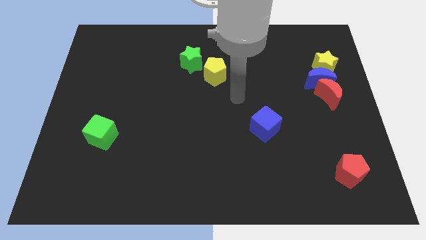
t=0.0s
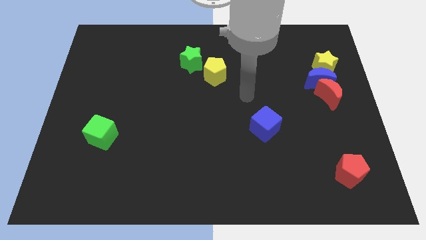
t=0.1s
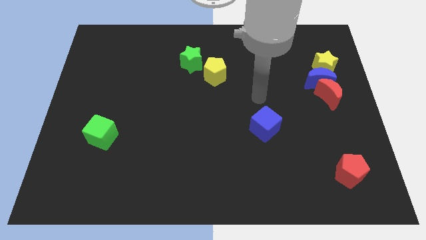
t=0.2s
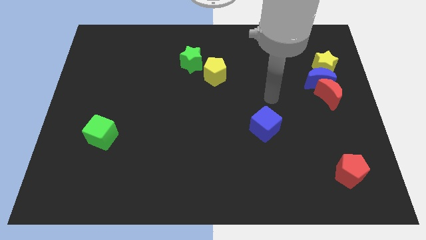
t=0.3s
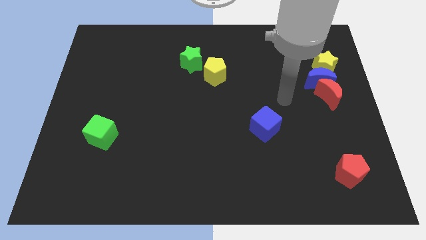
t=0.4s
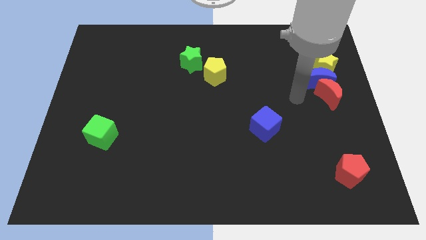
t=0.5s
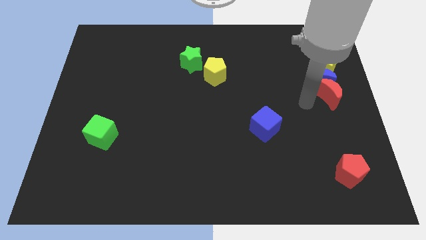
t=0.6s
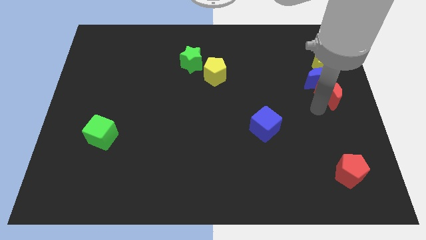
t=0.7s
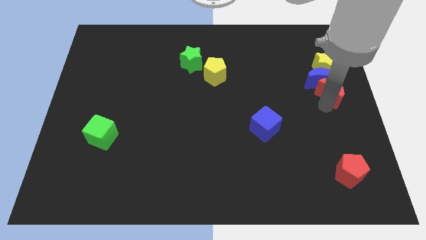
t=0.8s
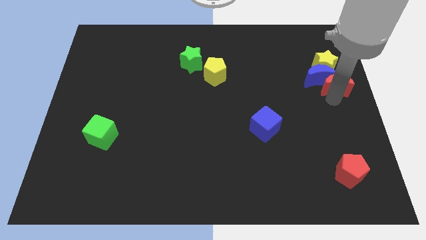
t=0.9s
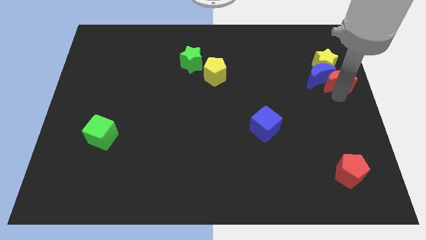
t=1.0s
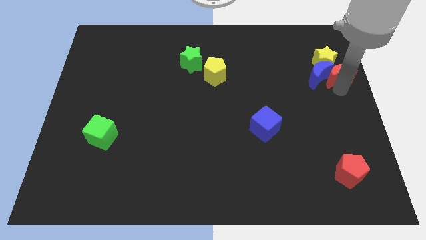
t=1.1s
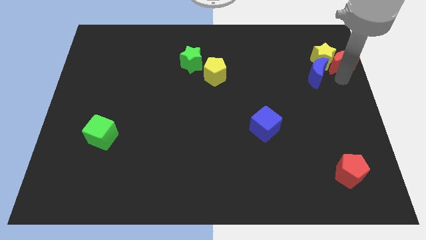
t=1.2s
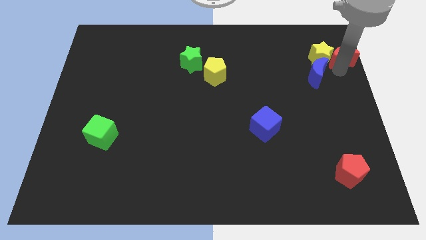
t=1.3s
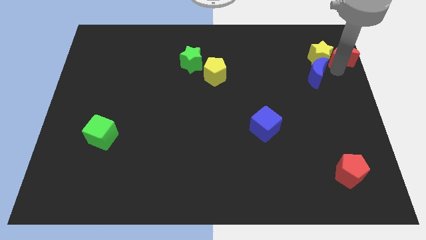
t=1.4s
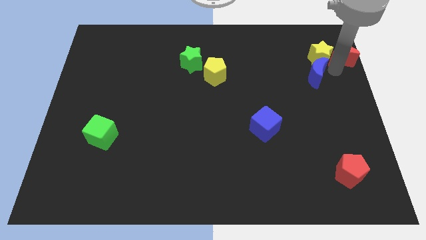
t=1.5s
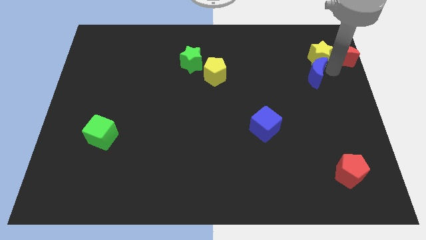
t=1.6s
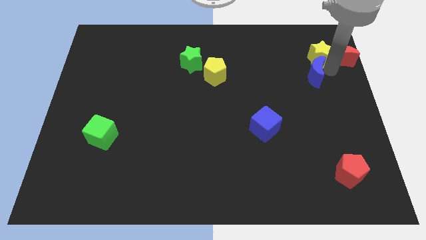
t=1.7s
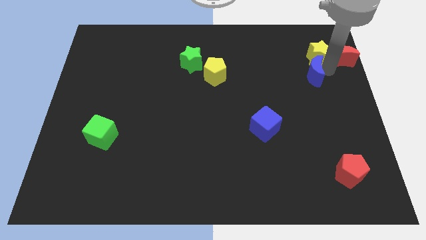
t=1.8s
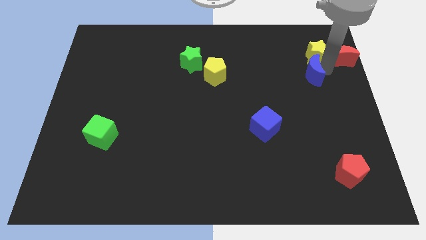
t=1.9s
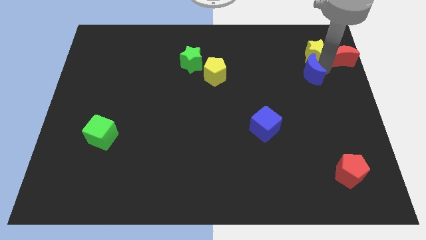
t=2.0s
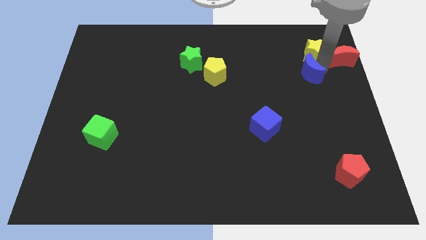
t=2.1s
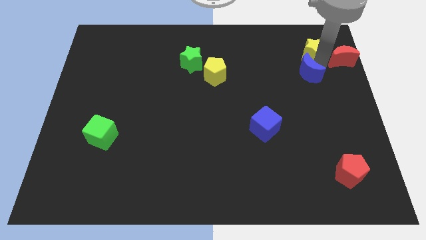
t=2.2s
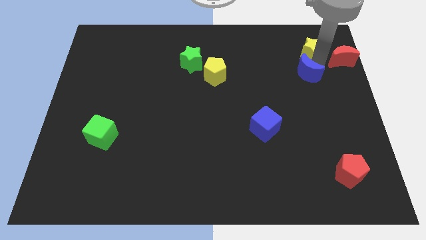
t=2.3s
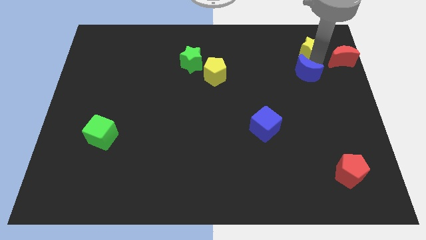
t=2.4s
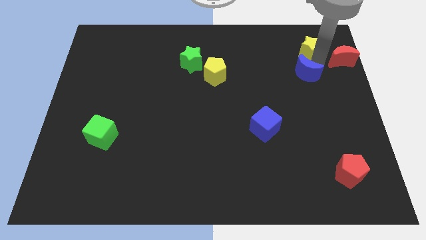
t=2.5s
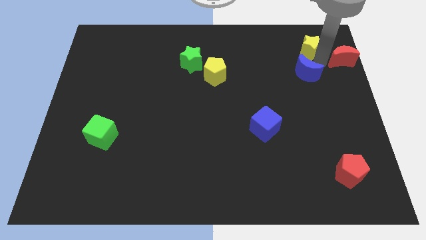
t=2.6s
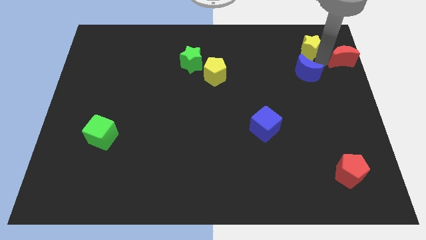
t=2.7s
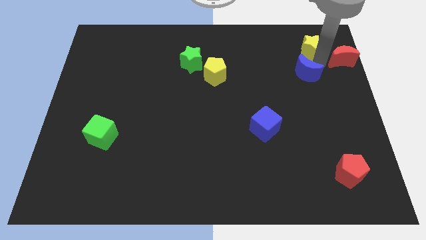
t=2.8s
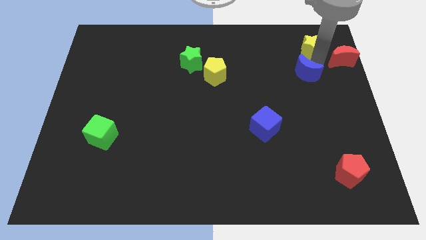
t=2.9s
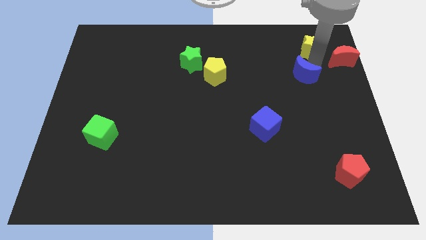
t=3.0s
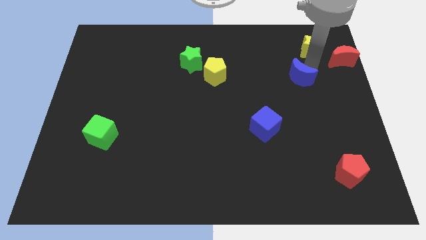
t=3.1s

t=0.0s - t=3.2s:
move the blue moon away from the red moon and yellow star

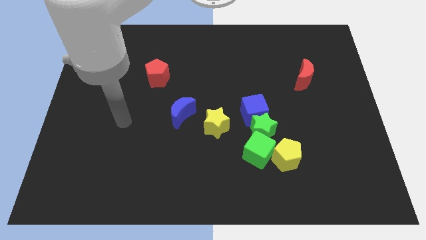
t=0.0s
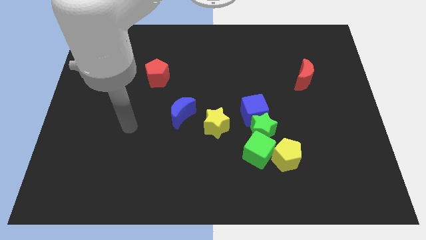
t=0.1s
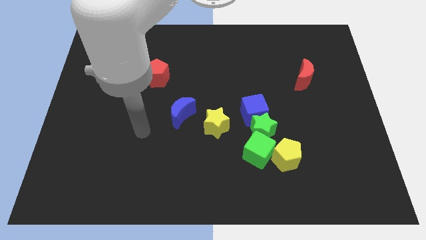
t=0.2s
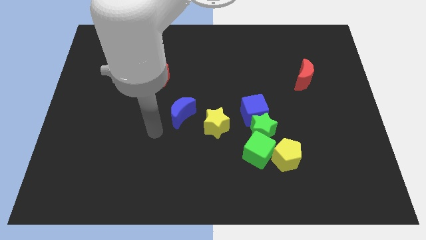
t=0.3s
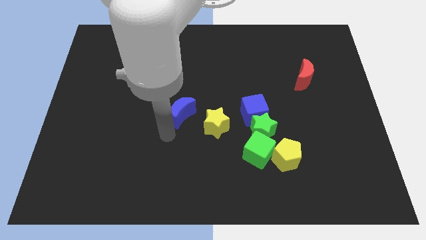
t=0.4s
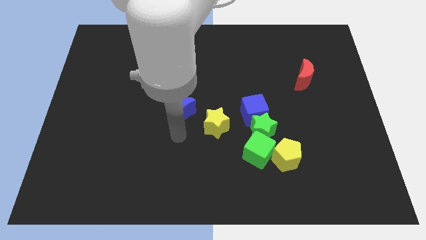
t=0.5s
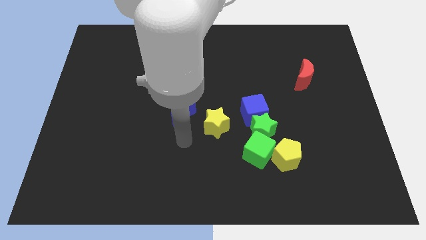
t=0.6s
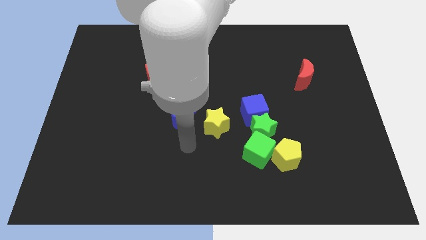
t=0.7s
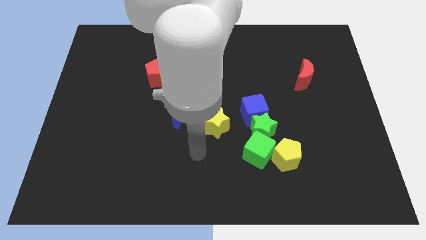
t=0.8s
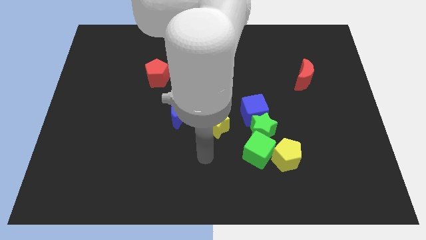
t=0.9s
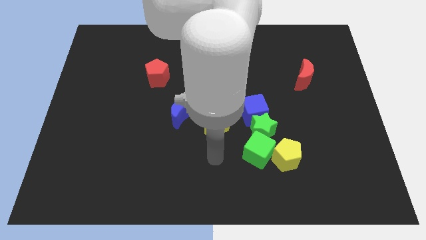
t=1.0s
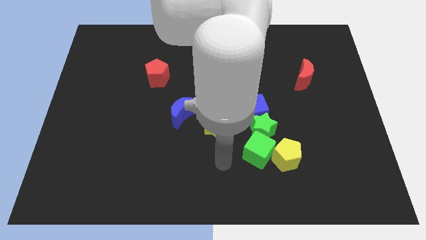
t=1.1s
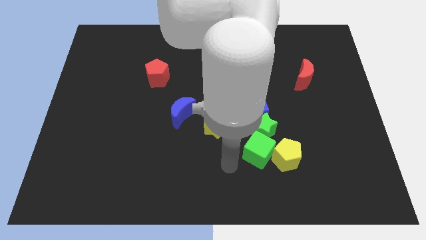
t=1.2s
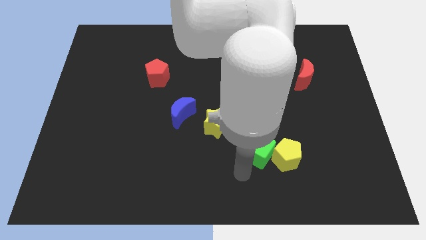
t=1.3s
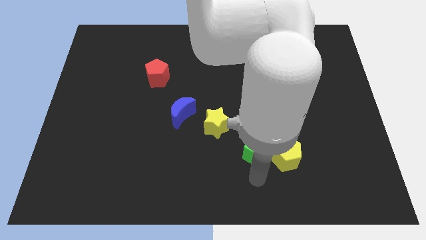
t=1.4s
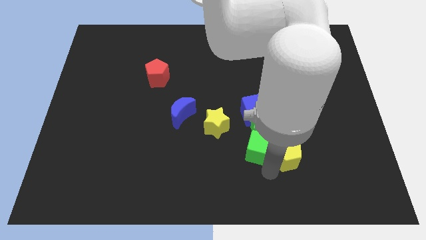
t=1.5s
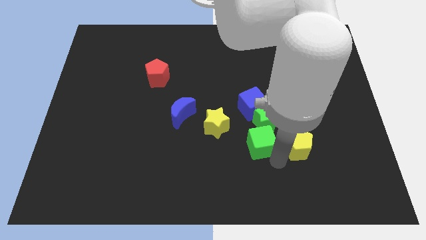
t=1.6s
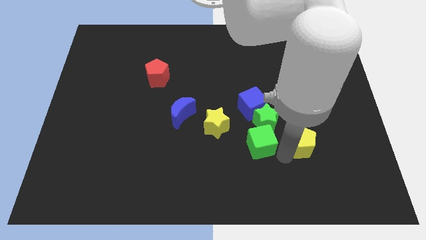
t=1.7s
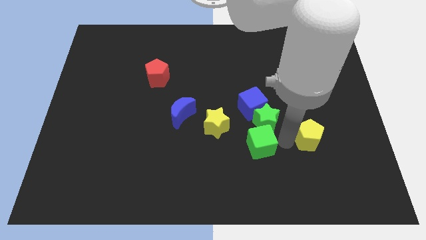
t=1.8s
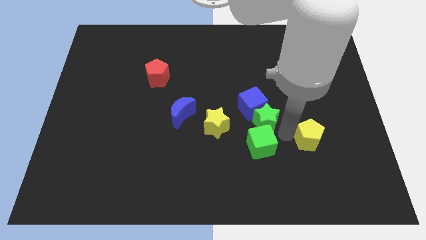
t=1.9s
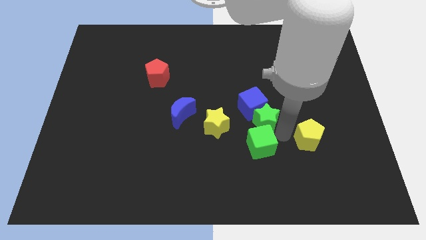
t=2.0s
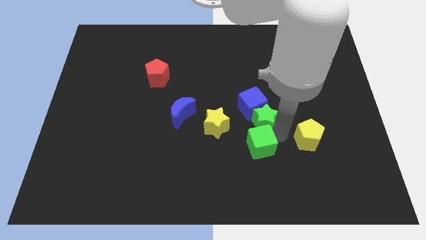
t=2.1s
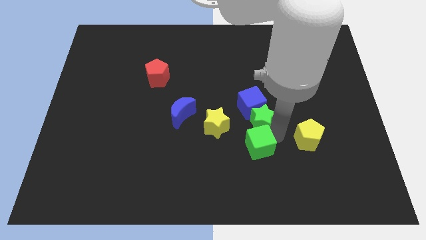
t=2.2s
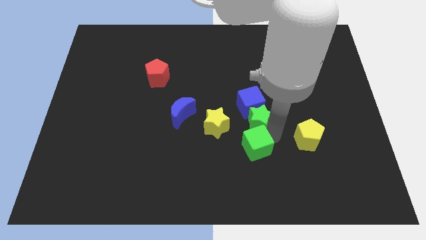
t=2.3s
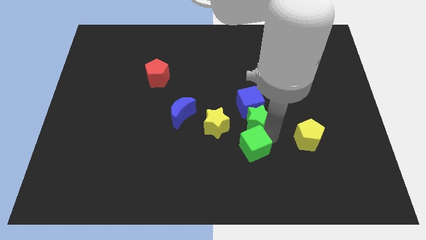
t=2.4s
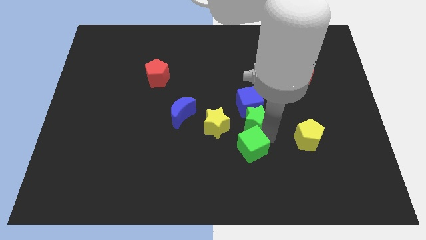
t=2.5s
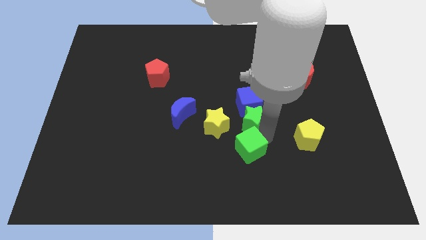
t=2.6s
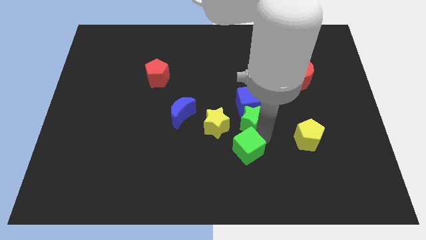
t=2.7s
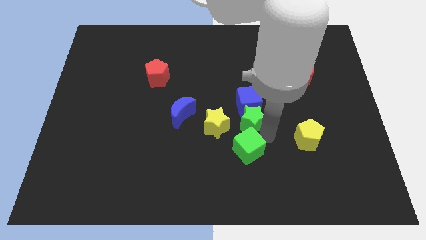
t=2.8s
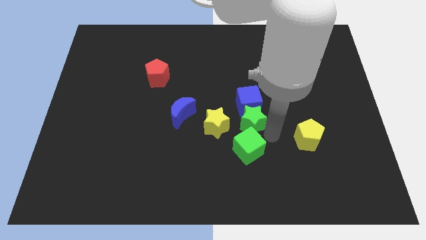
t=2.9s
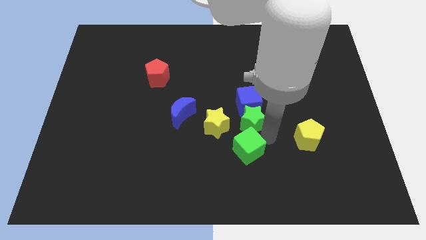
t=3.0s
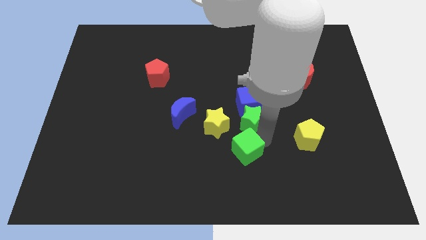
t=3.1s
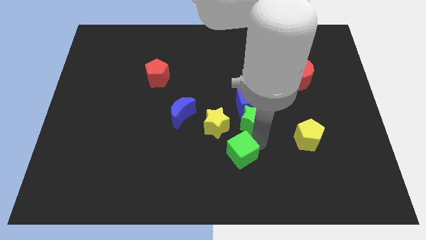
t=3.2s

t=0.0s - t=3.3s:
move the green cube away from the green star and yellow pentagon

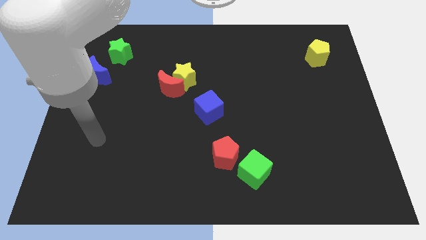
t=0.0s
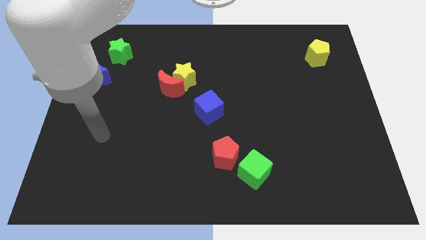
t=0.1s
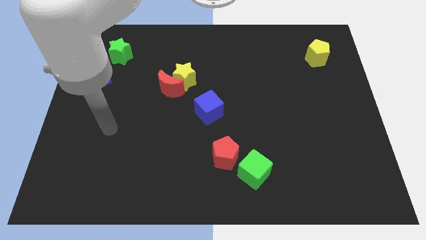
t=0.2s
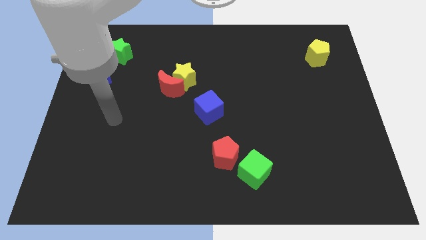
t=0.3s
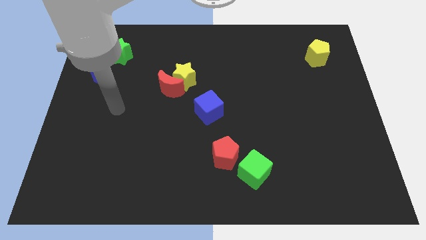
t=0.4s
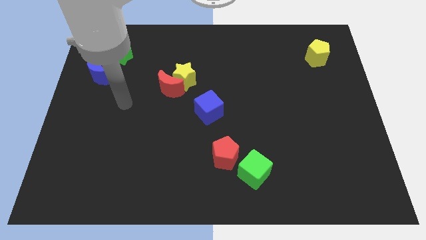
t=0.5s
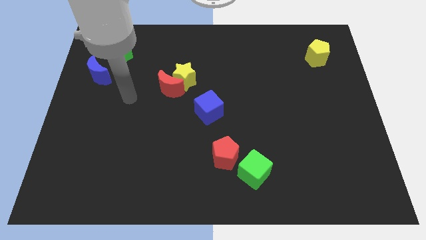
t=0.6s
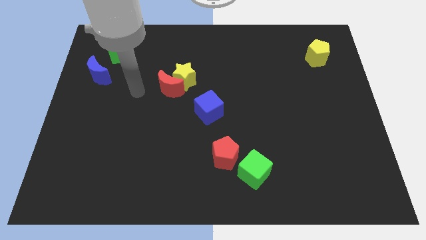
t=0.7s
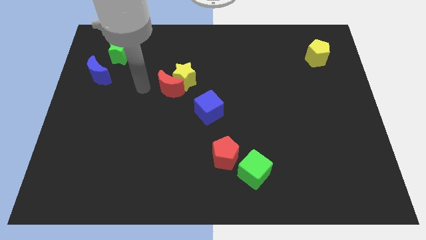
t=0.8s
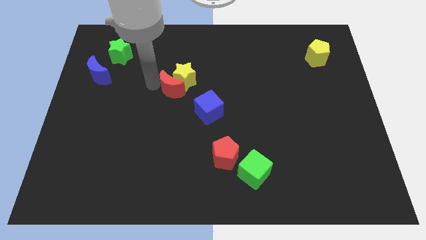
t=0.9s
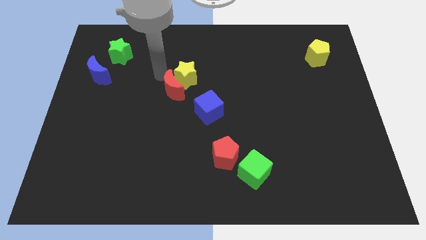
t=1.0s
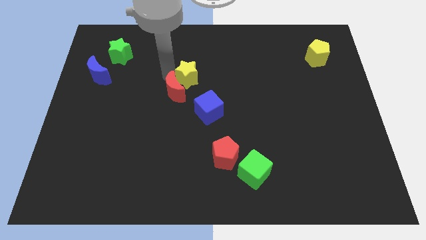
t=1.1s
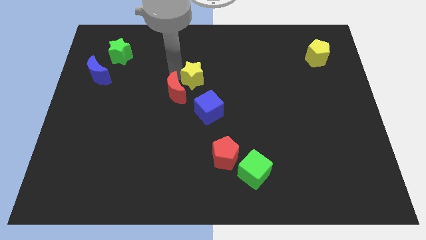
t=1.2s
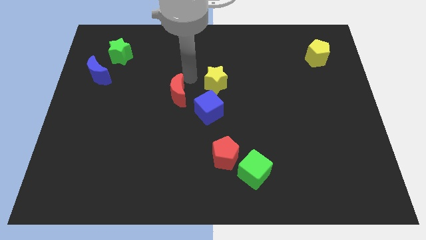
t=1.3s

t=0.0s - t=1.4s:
separate the red moon from the yellow star

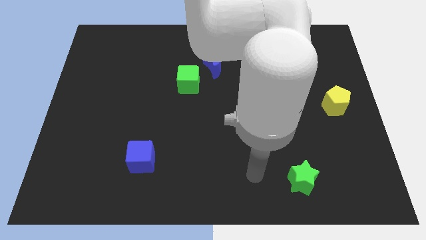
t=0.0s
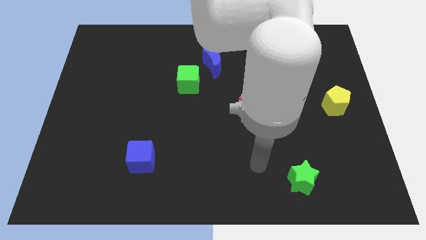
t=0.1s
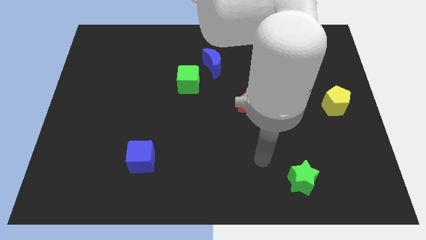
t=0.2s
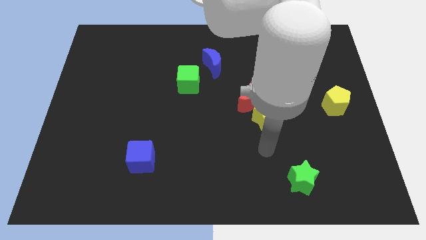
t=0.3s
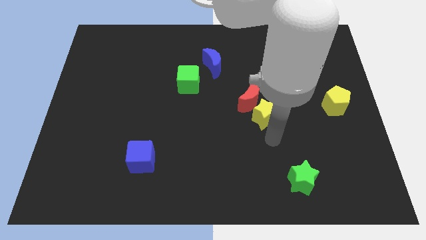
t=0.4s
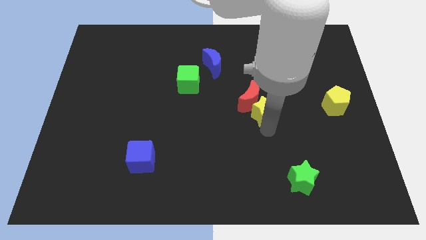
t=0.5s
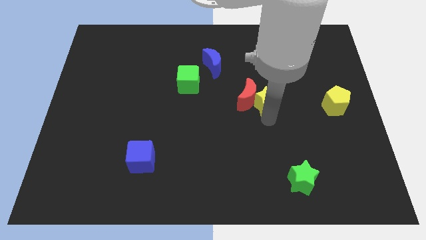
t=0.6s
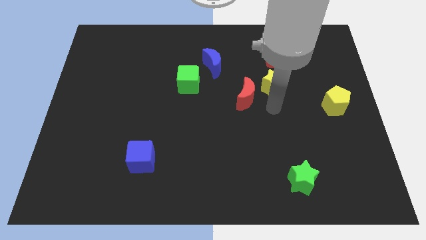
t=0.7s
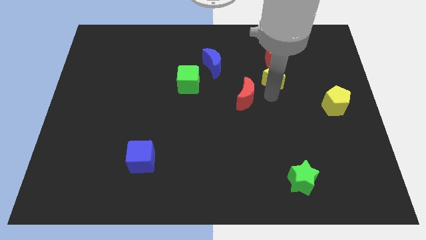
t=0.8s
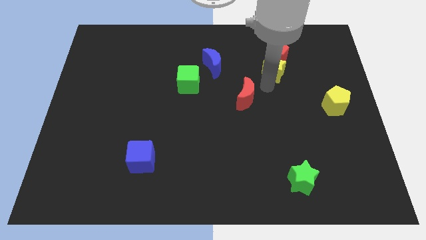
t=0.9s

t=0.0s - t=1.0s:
pull the red moon apart from the yellow star

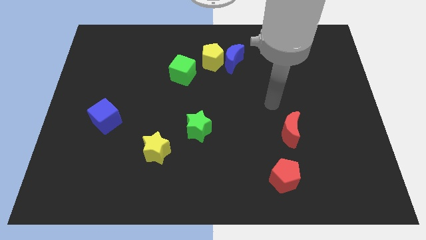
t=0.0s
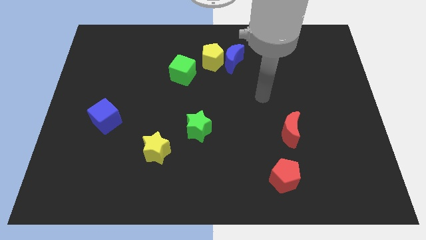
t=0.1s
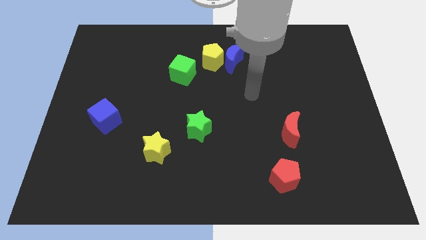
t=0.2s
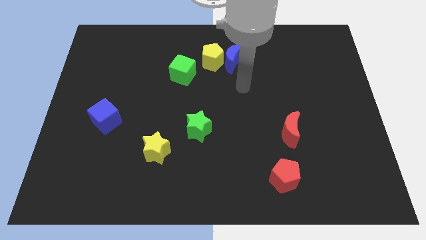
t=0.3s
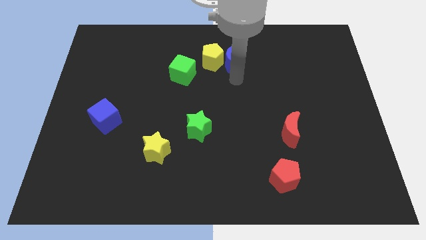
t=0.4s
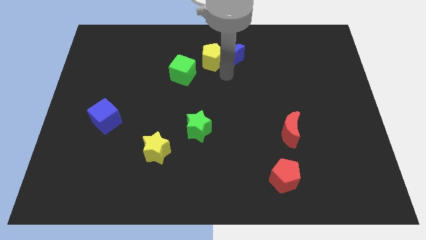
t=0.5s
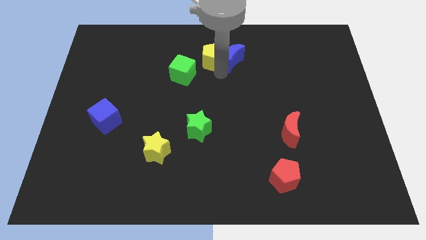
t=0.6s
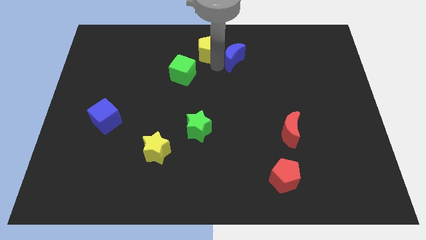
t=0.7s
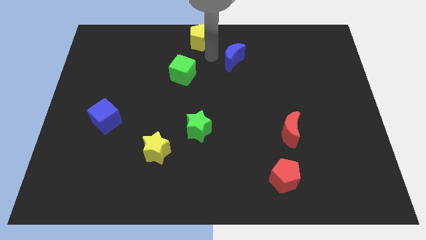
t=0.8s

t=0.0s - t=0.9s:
separate the blue moon from the yellow pentagon
